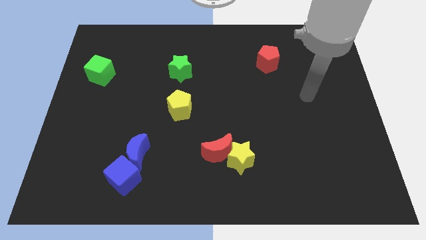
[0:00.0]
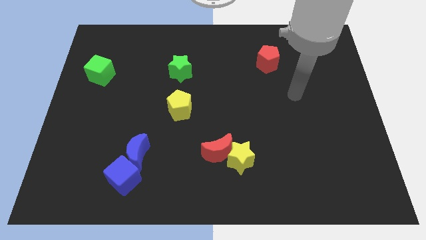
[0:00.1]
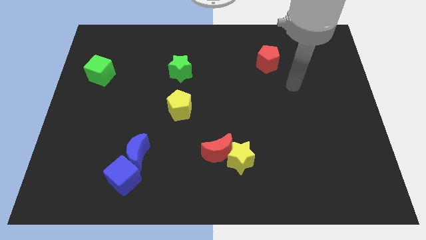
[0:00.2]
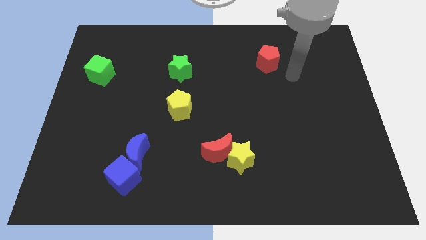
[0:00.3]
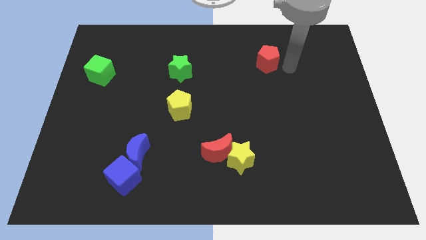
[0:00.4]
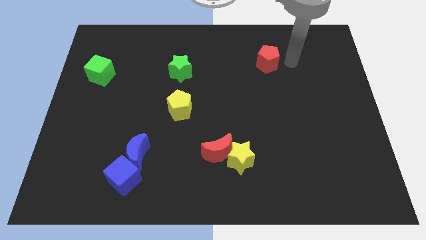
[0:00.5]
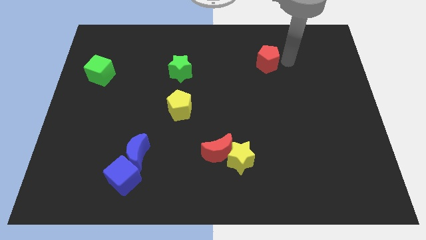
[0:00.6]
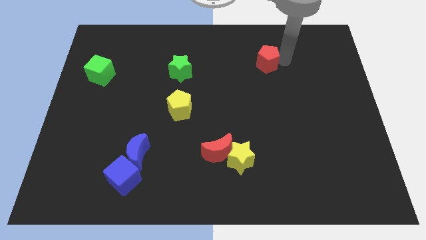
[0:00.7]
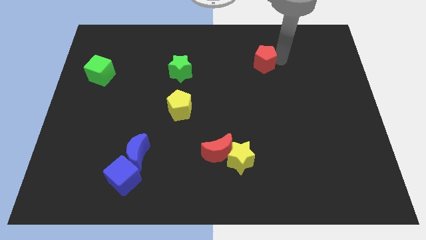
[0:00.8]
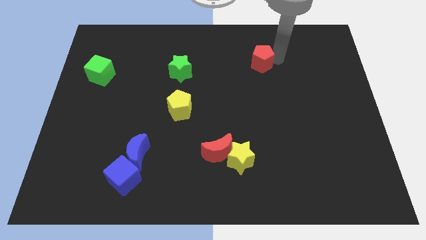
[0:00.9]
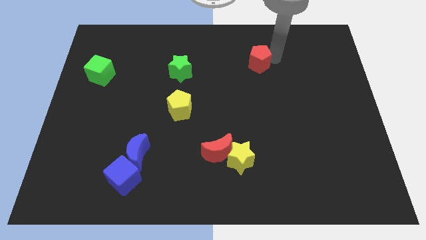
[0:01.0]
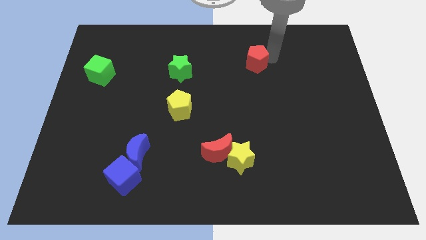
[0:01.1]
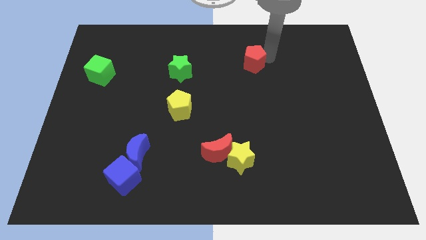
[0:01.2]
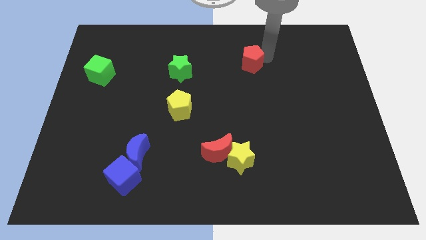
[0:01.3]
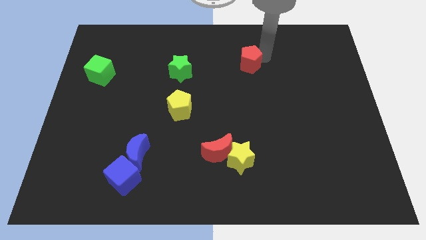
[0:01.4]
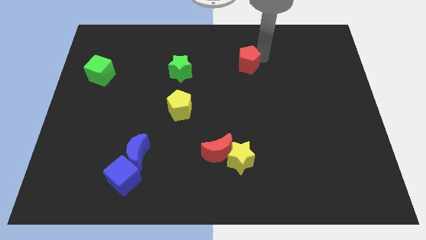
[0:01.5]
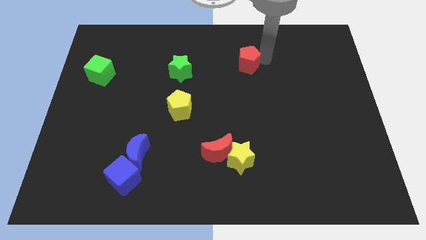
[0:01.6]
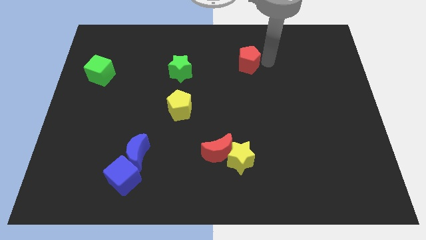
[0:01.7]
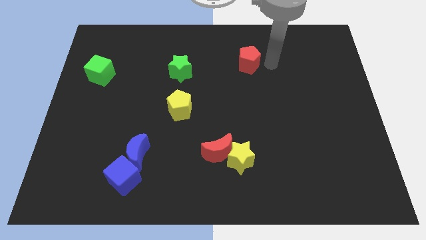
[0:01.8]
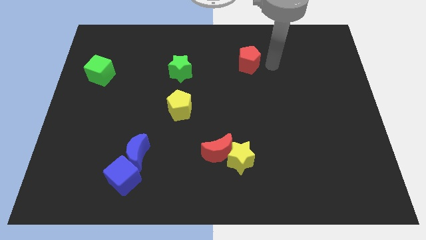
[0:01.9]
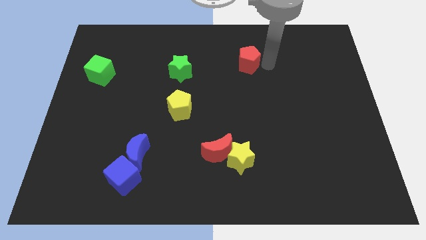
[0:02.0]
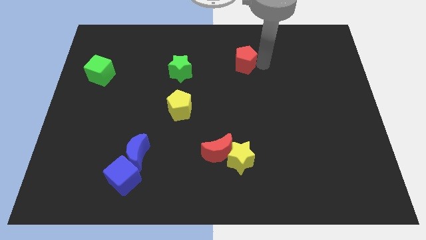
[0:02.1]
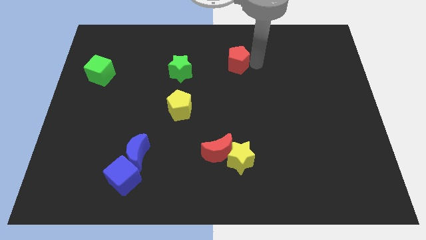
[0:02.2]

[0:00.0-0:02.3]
slide the red pentagon to the left a little

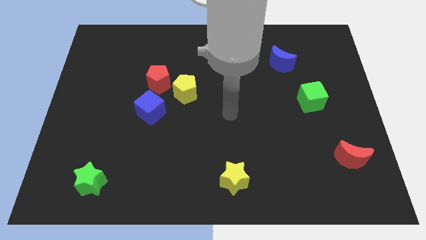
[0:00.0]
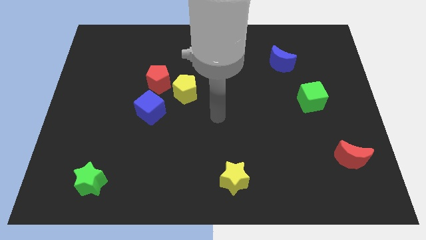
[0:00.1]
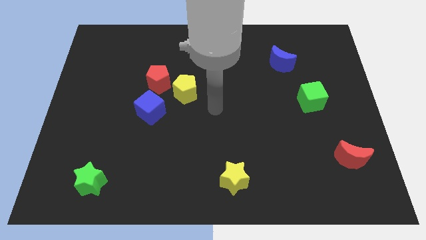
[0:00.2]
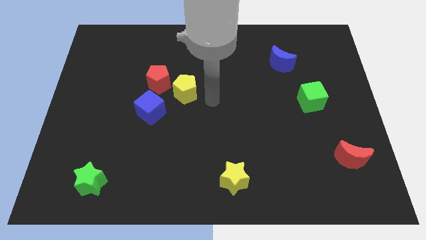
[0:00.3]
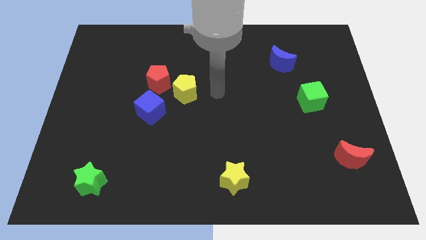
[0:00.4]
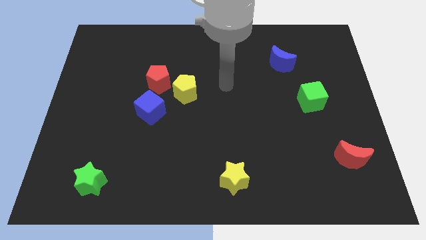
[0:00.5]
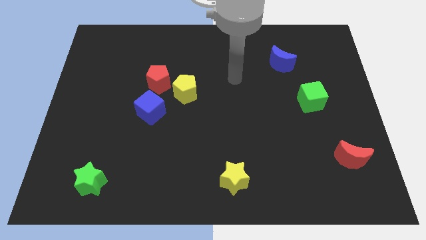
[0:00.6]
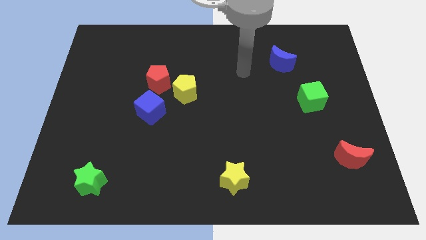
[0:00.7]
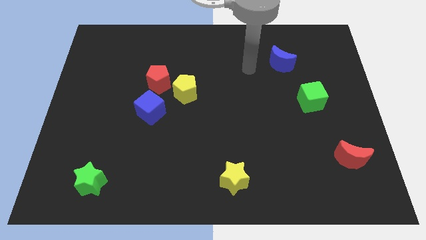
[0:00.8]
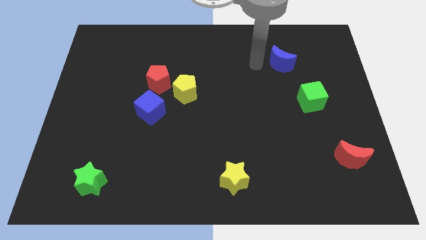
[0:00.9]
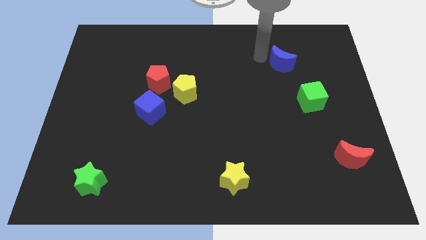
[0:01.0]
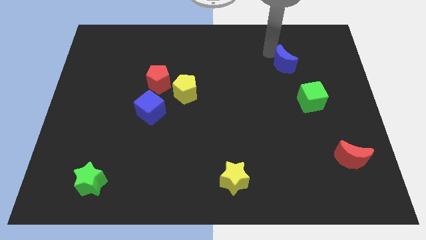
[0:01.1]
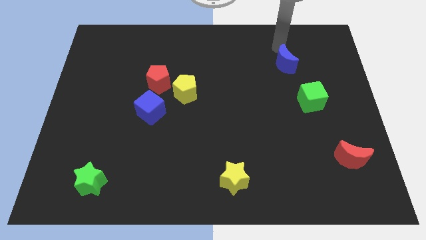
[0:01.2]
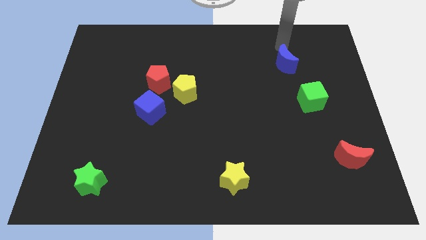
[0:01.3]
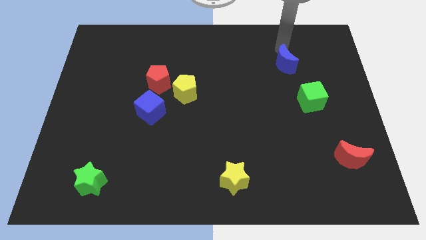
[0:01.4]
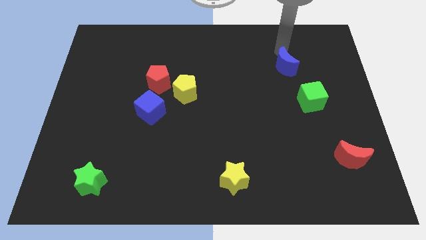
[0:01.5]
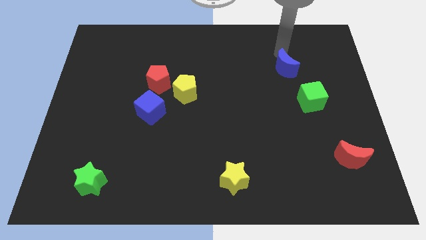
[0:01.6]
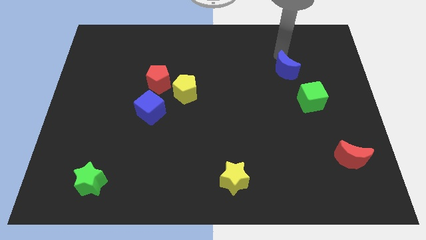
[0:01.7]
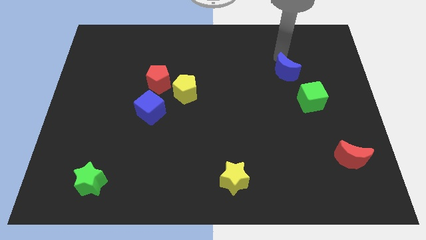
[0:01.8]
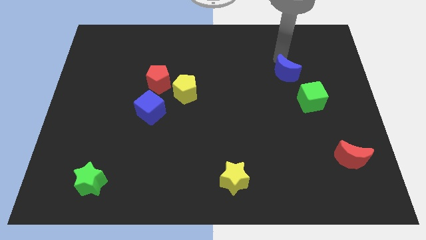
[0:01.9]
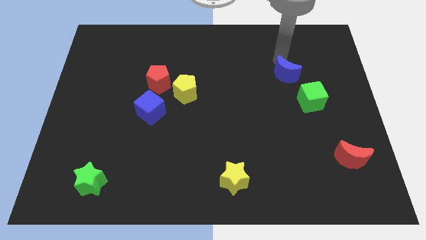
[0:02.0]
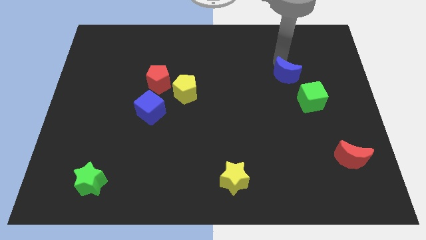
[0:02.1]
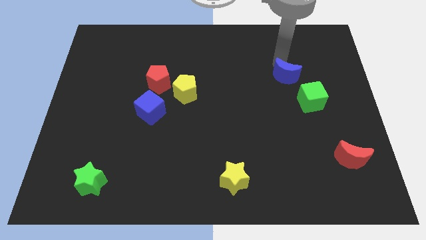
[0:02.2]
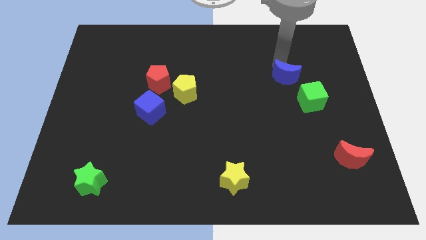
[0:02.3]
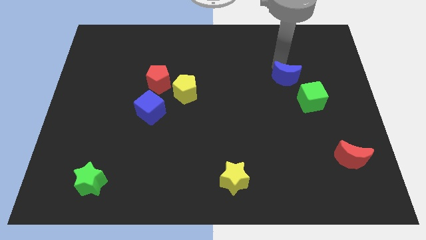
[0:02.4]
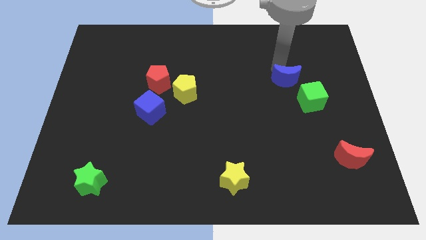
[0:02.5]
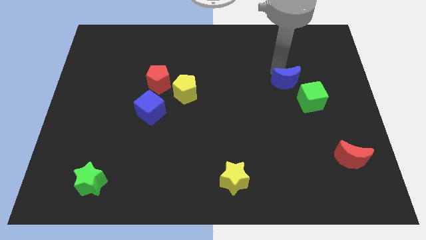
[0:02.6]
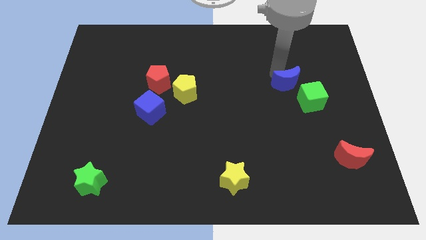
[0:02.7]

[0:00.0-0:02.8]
push the blue moon a little downwards

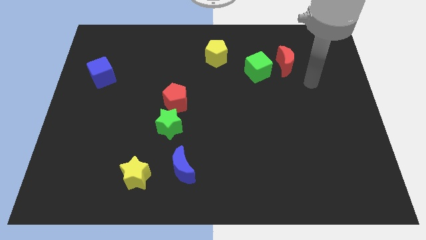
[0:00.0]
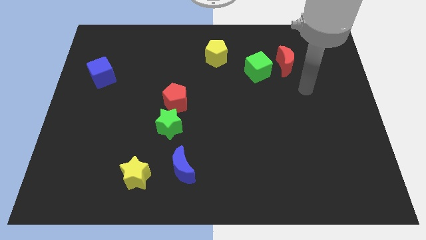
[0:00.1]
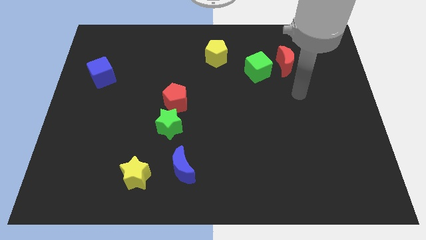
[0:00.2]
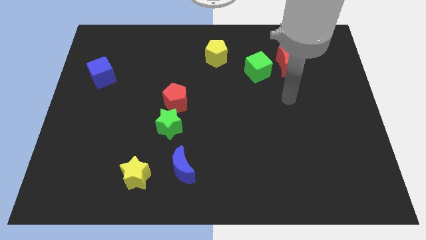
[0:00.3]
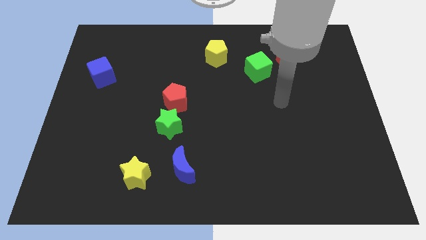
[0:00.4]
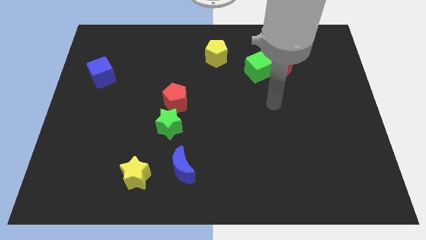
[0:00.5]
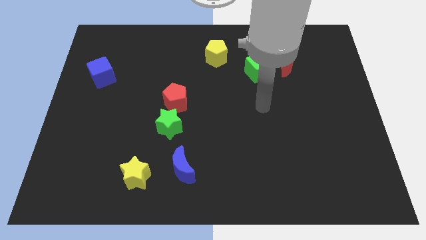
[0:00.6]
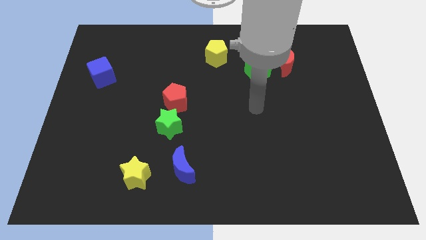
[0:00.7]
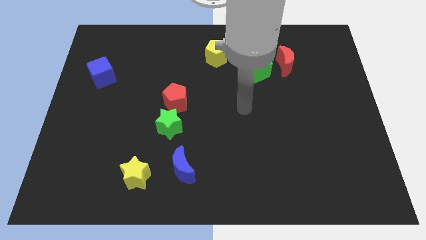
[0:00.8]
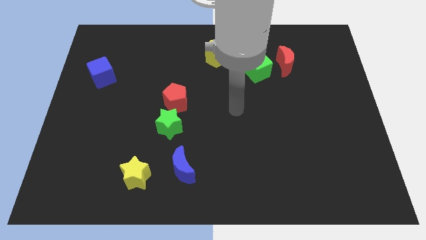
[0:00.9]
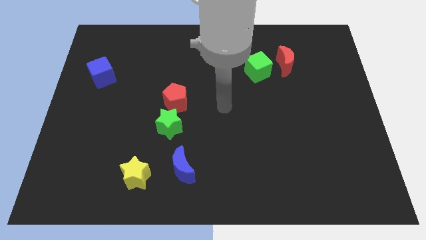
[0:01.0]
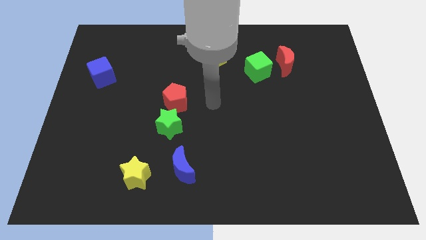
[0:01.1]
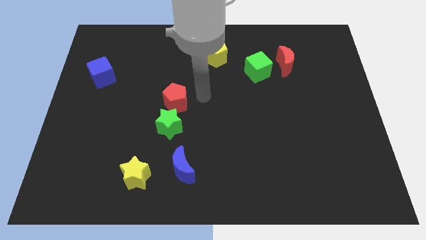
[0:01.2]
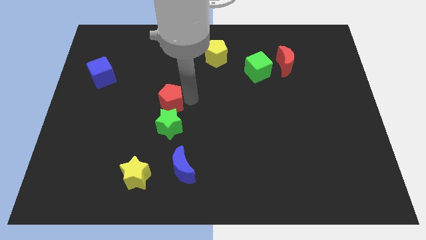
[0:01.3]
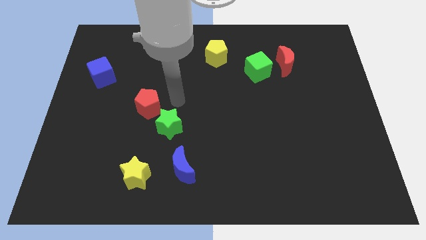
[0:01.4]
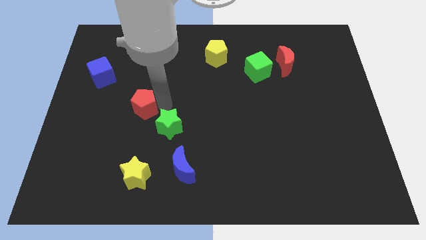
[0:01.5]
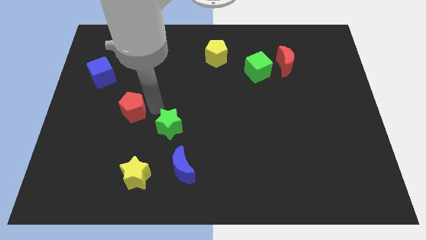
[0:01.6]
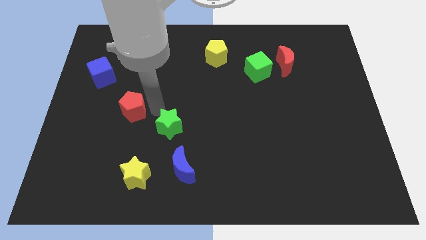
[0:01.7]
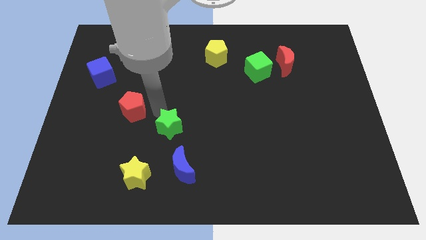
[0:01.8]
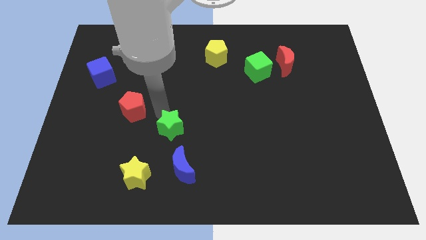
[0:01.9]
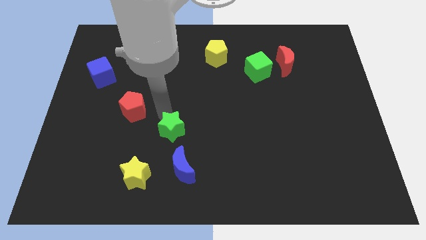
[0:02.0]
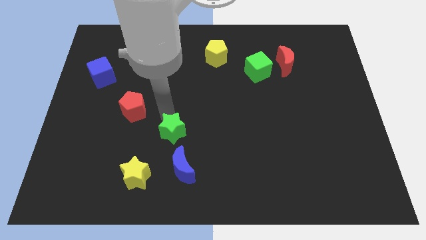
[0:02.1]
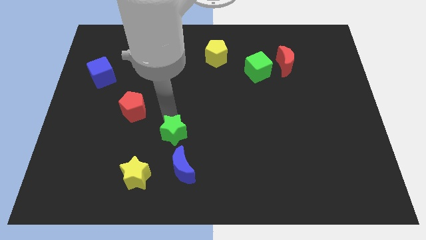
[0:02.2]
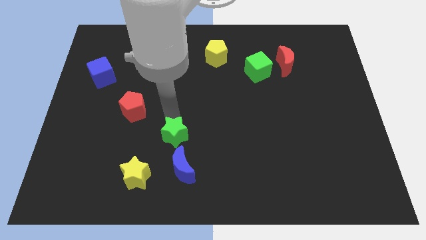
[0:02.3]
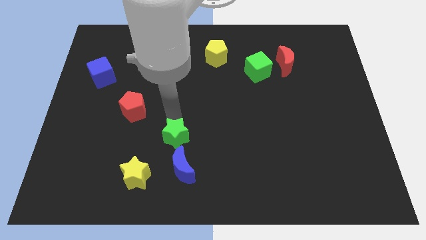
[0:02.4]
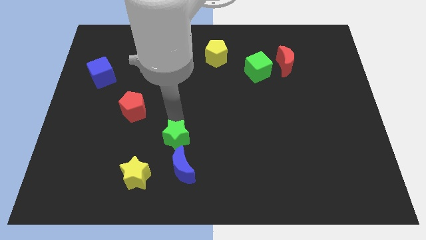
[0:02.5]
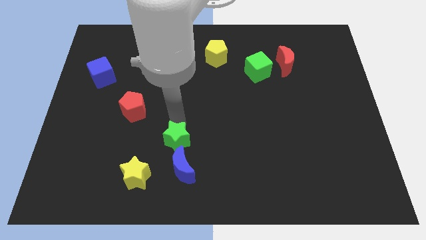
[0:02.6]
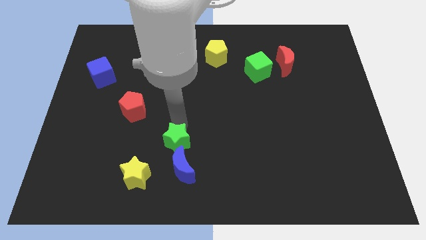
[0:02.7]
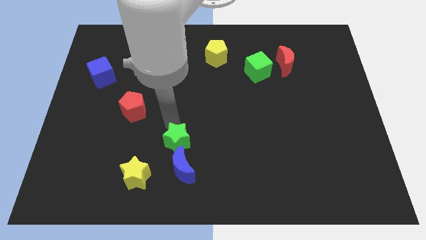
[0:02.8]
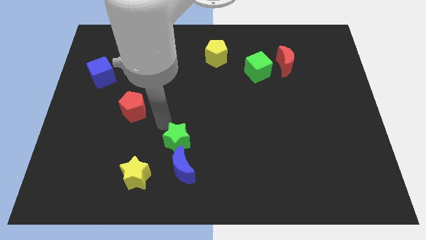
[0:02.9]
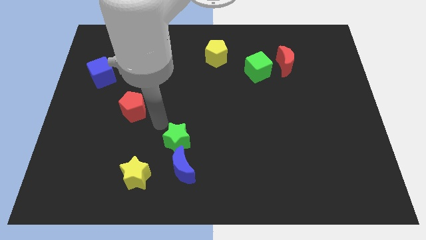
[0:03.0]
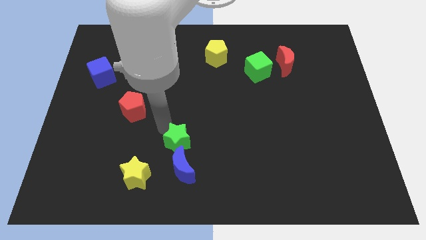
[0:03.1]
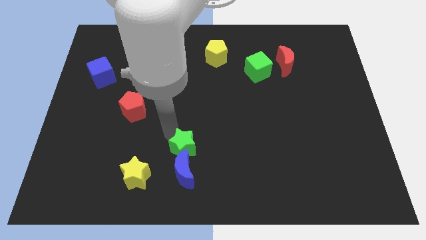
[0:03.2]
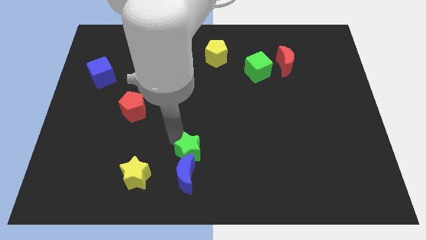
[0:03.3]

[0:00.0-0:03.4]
slightly push the green star down and then to the right
